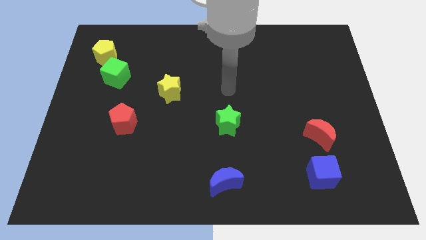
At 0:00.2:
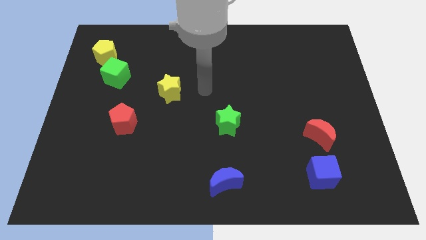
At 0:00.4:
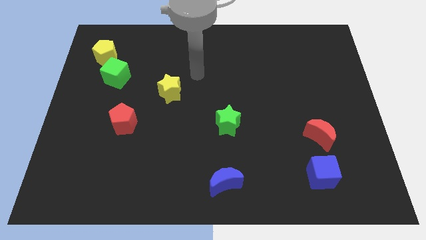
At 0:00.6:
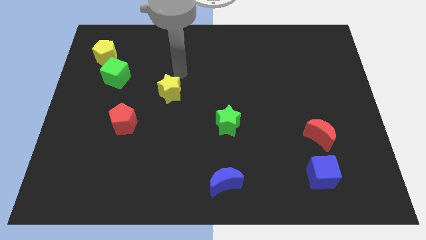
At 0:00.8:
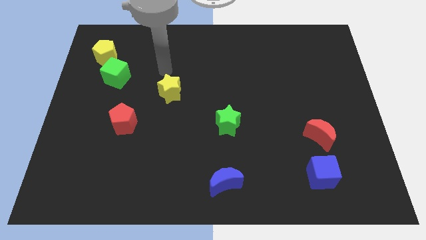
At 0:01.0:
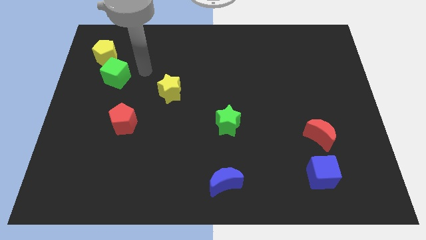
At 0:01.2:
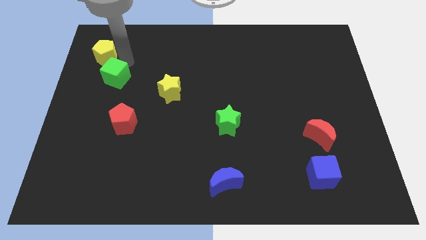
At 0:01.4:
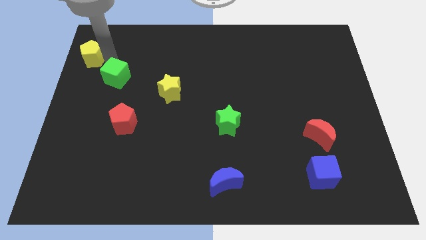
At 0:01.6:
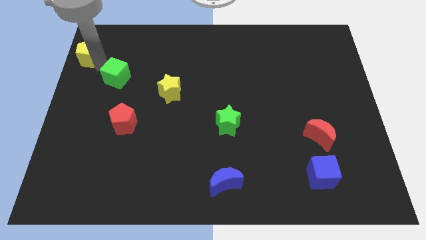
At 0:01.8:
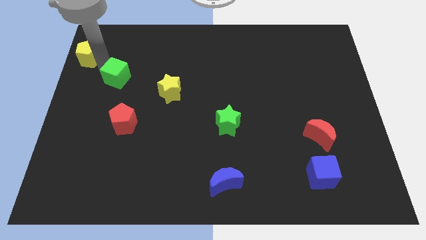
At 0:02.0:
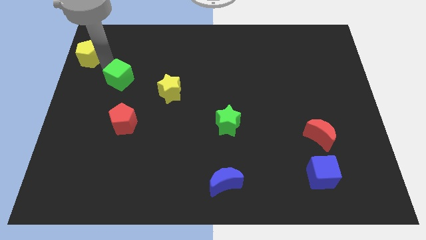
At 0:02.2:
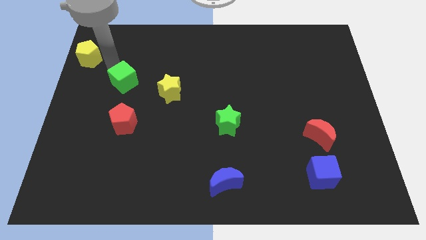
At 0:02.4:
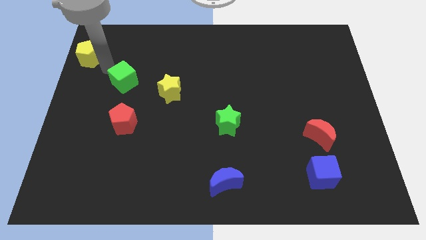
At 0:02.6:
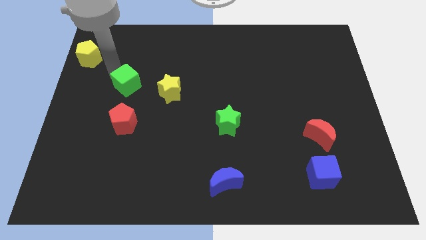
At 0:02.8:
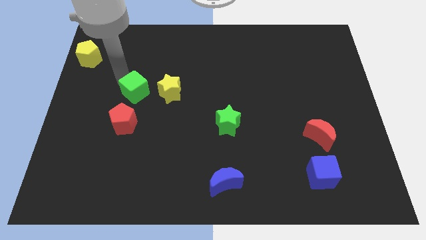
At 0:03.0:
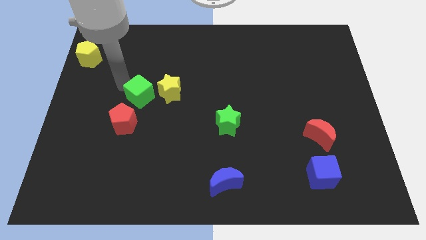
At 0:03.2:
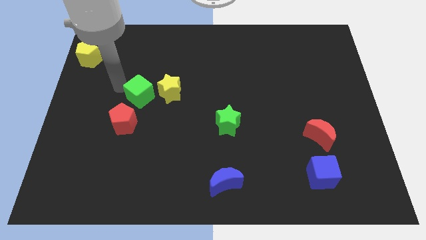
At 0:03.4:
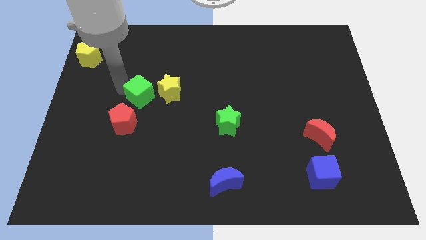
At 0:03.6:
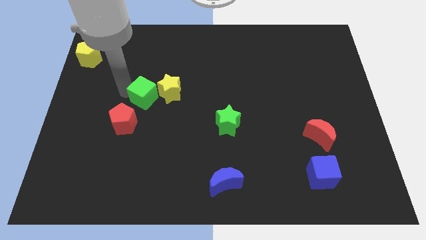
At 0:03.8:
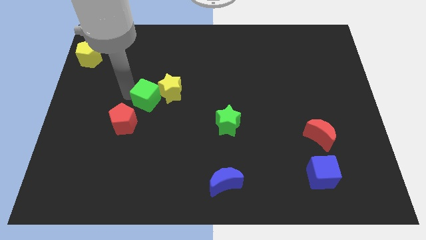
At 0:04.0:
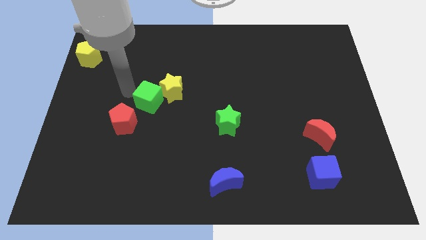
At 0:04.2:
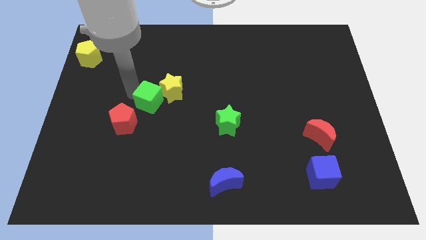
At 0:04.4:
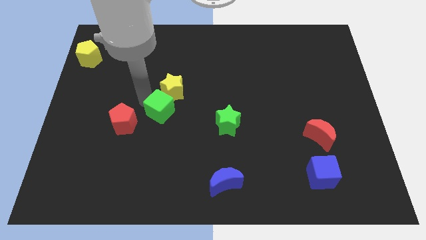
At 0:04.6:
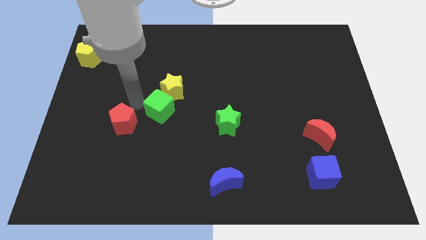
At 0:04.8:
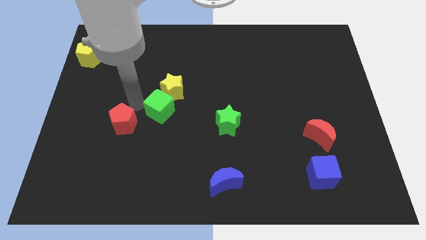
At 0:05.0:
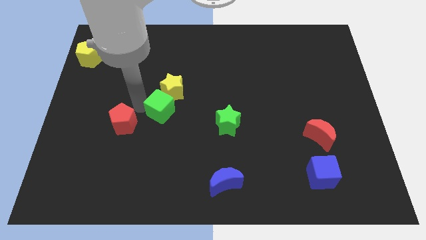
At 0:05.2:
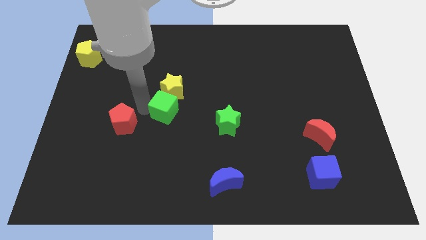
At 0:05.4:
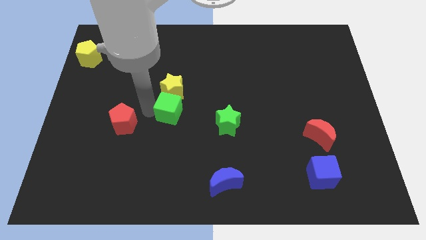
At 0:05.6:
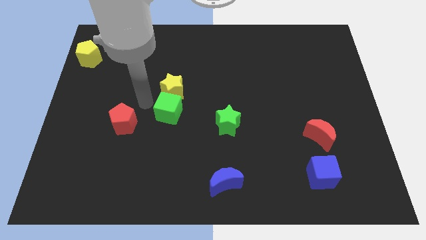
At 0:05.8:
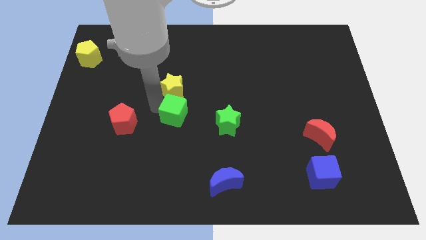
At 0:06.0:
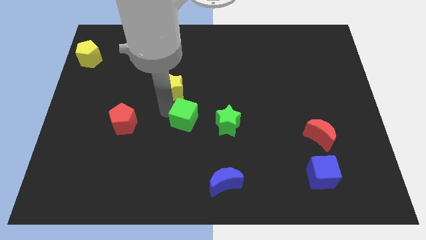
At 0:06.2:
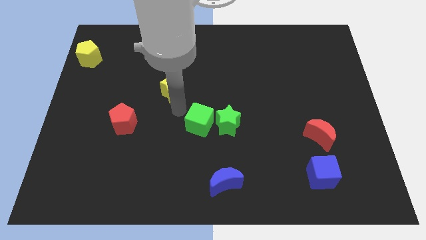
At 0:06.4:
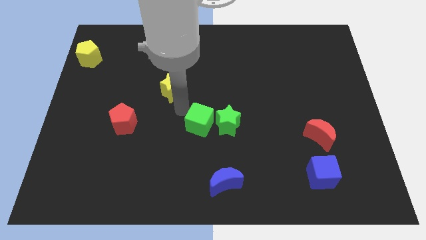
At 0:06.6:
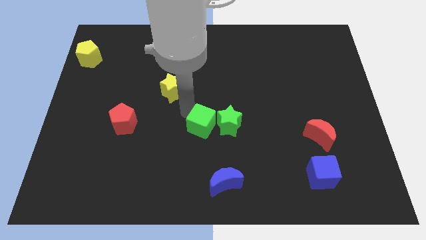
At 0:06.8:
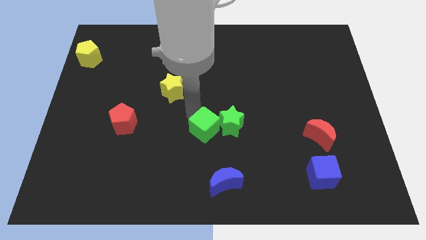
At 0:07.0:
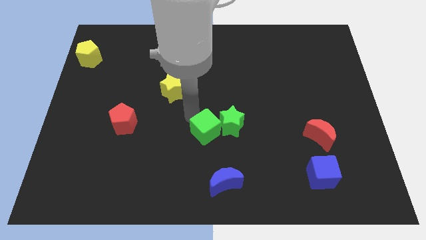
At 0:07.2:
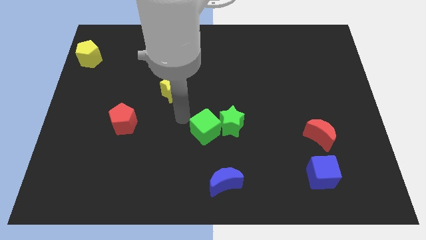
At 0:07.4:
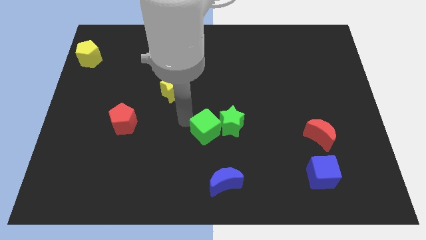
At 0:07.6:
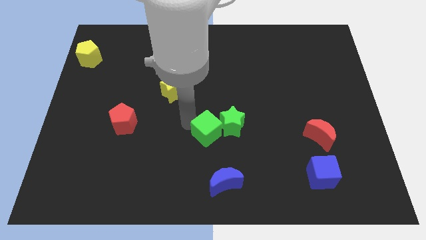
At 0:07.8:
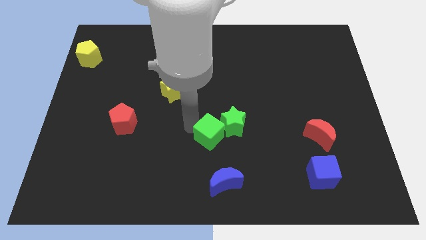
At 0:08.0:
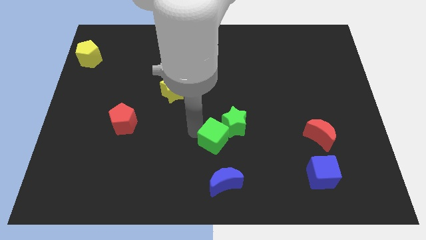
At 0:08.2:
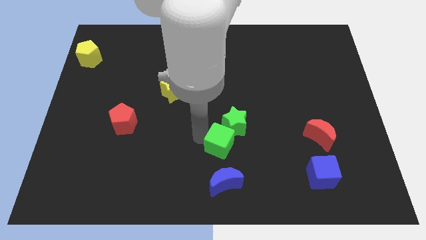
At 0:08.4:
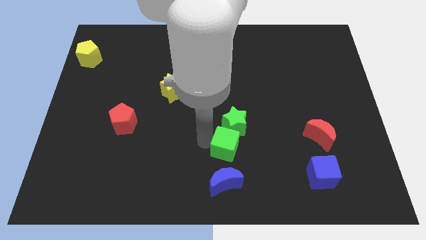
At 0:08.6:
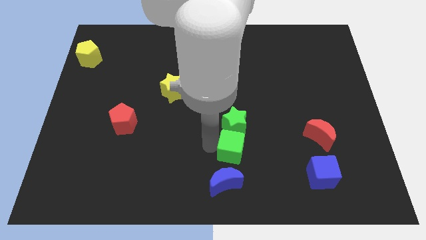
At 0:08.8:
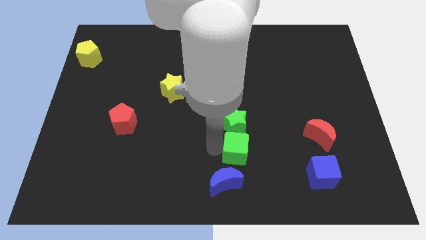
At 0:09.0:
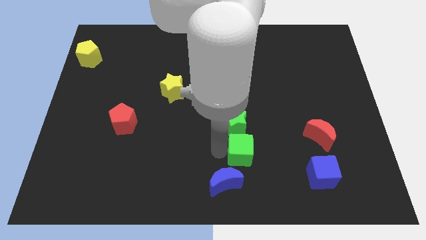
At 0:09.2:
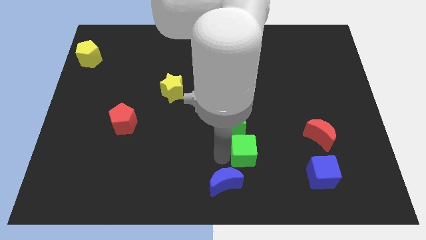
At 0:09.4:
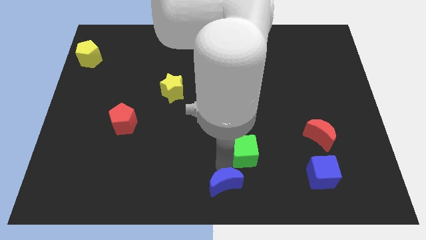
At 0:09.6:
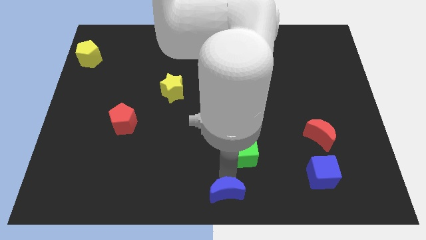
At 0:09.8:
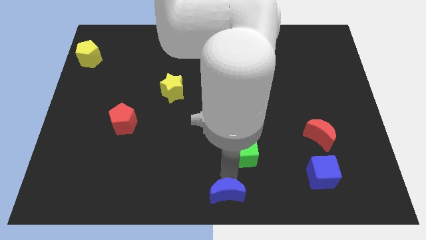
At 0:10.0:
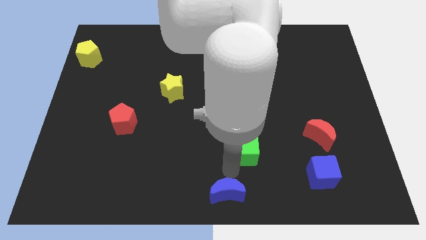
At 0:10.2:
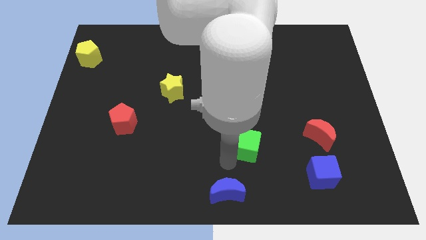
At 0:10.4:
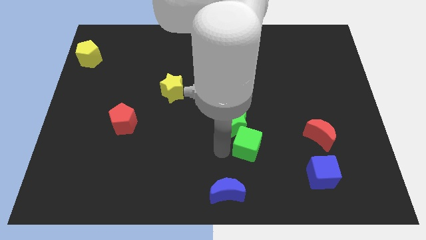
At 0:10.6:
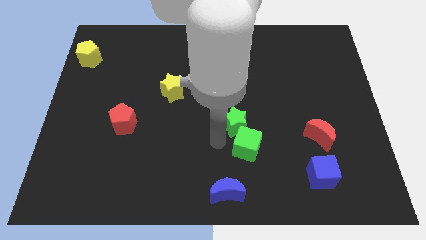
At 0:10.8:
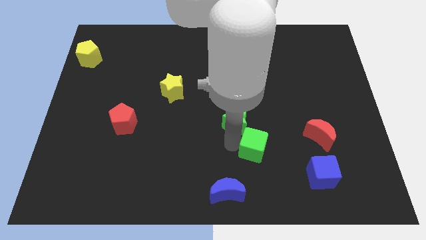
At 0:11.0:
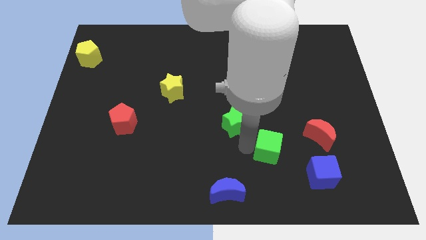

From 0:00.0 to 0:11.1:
slide the green cube to the top left of the blue cube

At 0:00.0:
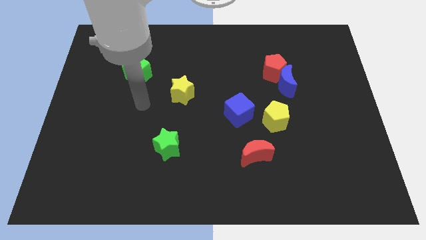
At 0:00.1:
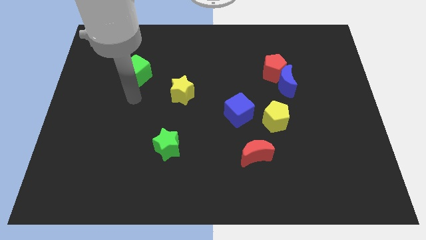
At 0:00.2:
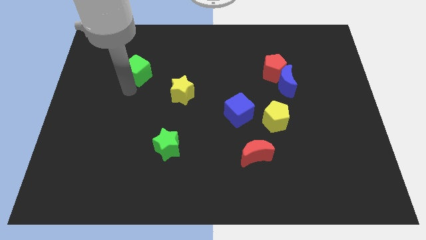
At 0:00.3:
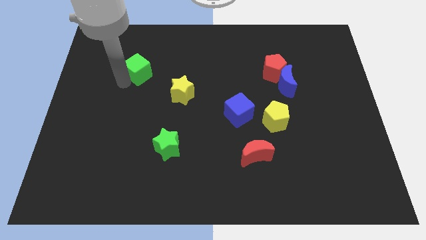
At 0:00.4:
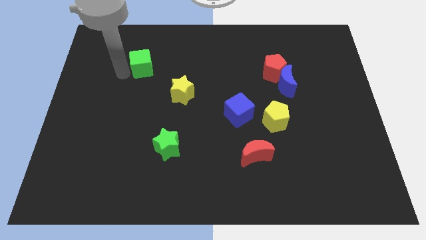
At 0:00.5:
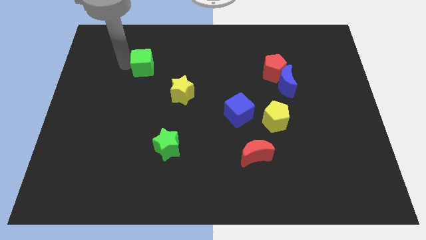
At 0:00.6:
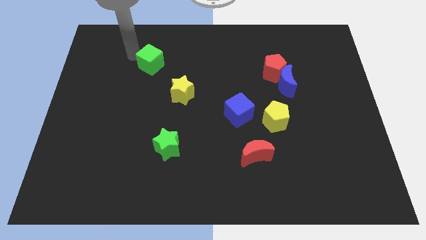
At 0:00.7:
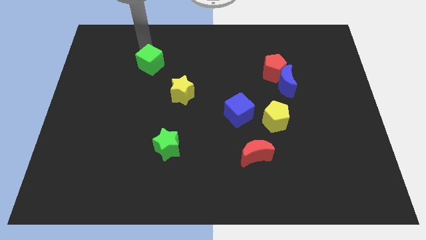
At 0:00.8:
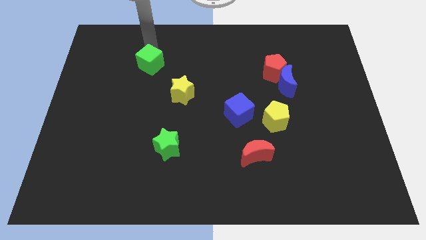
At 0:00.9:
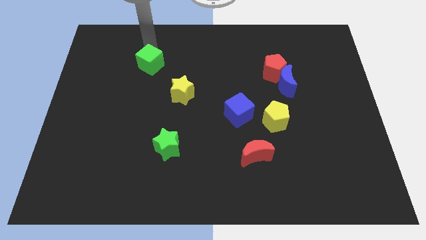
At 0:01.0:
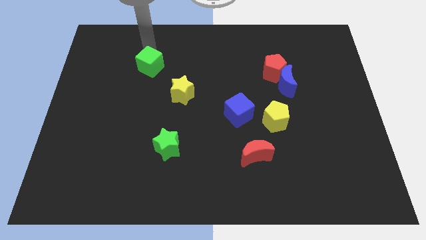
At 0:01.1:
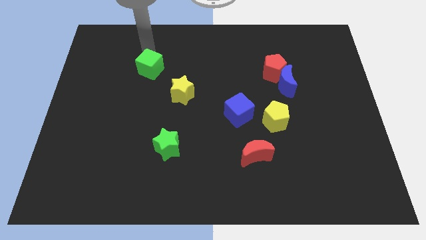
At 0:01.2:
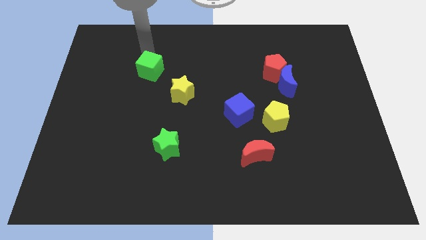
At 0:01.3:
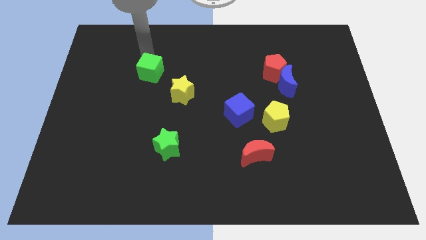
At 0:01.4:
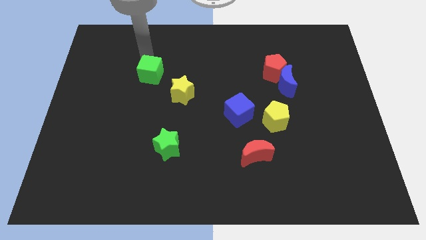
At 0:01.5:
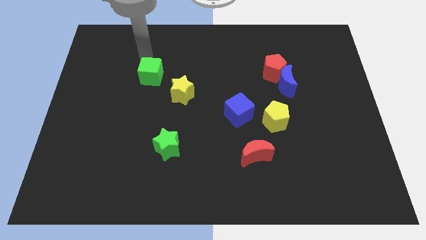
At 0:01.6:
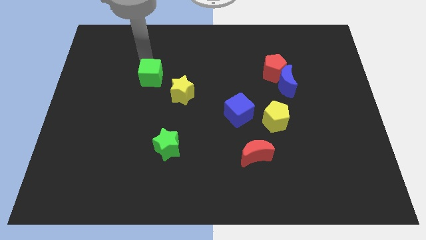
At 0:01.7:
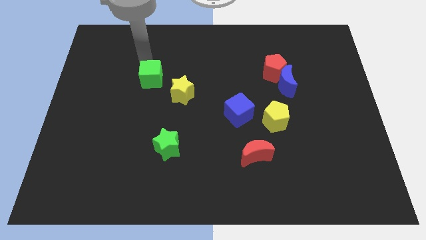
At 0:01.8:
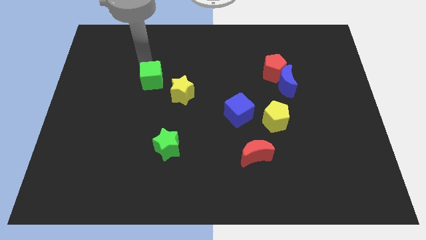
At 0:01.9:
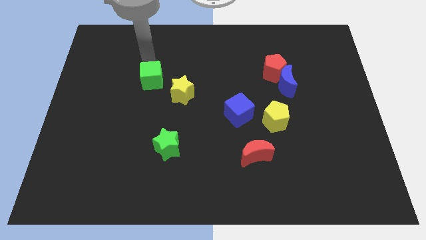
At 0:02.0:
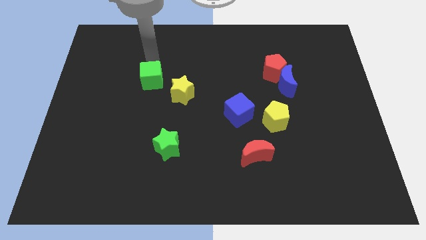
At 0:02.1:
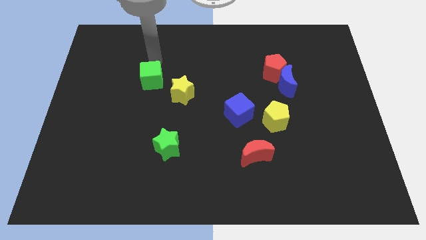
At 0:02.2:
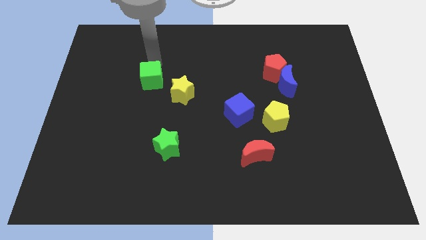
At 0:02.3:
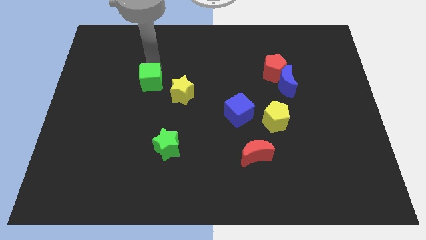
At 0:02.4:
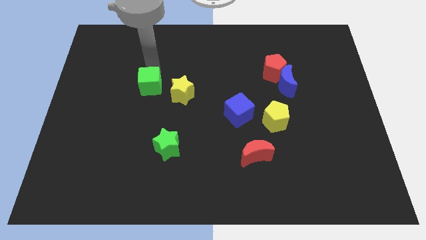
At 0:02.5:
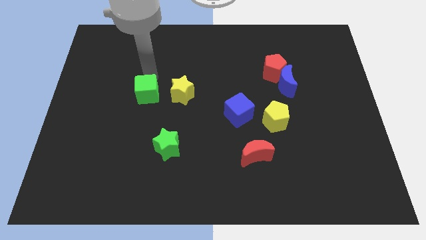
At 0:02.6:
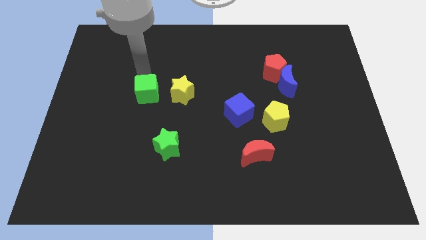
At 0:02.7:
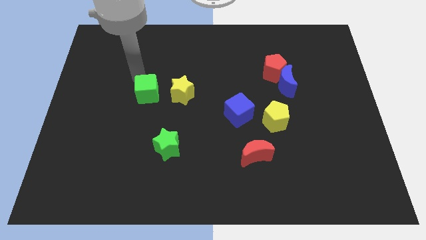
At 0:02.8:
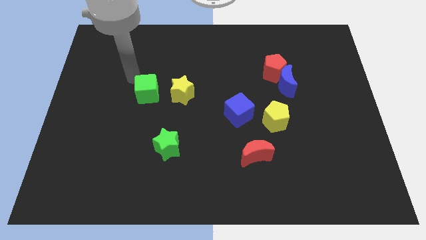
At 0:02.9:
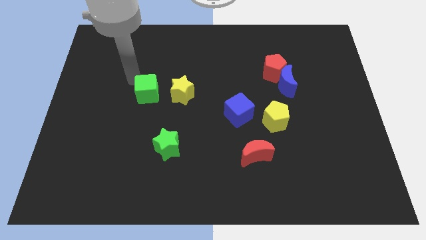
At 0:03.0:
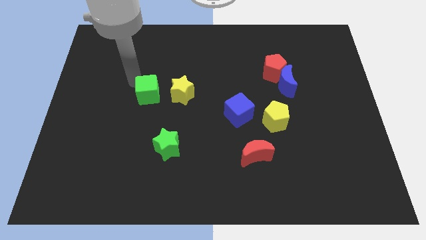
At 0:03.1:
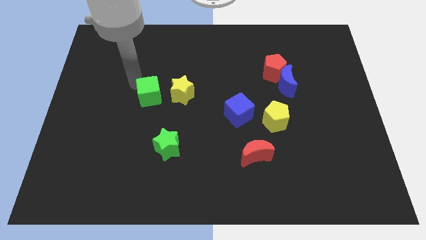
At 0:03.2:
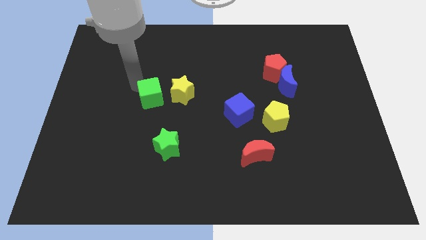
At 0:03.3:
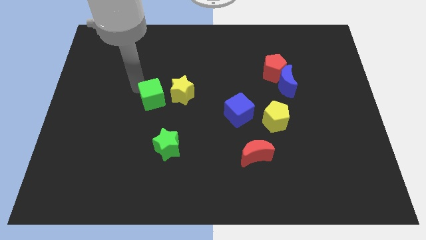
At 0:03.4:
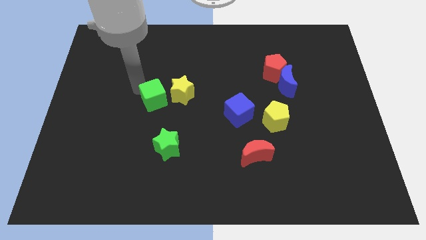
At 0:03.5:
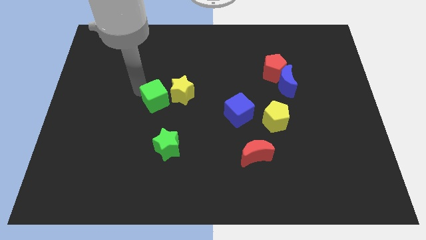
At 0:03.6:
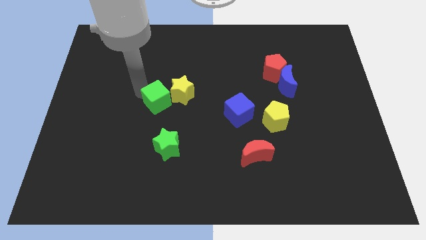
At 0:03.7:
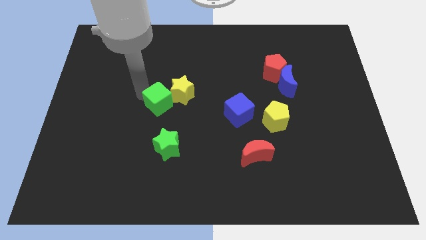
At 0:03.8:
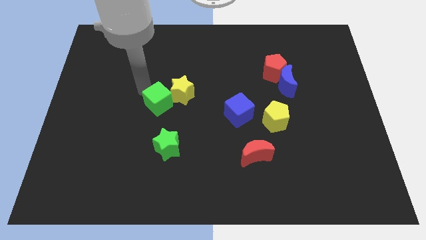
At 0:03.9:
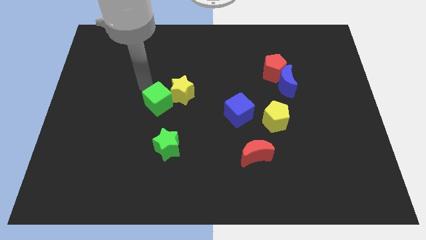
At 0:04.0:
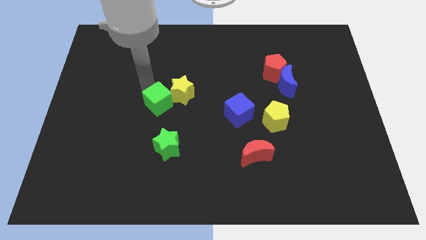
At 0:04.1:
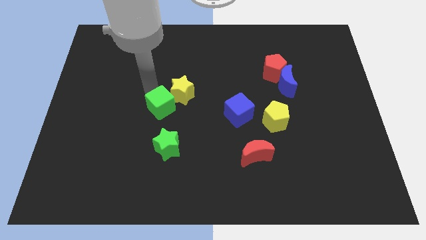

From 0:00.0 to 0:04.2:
move the green cube to the bottom side of the yellow star
